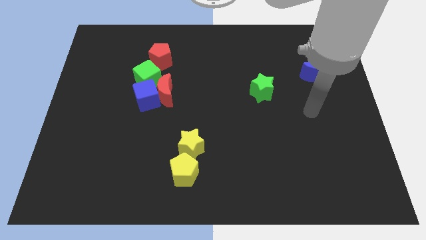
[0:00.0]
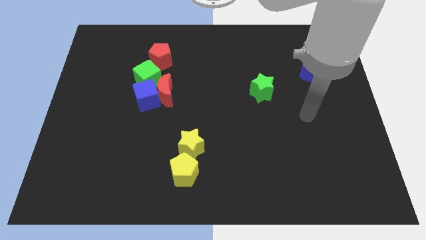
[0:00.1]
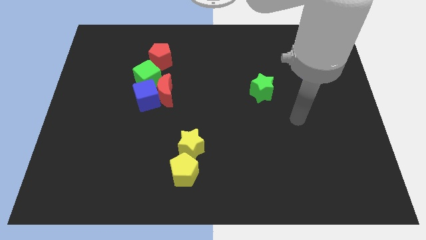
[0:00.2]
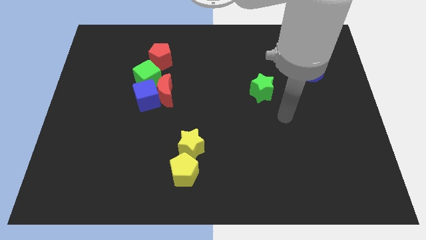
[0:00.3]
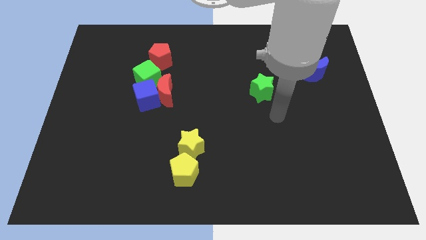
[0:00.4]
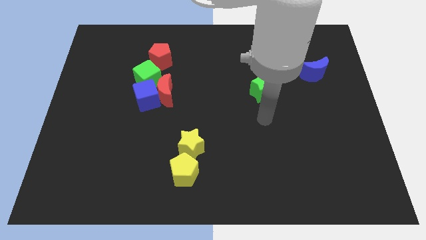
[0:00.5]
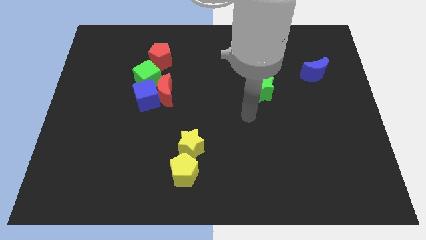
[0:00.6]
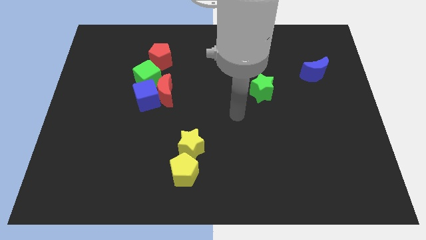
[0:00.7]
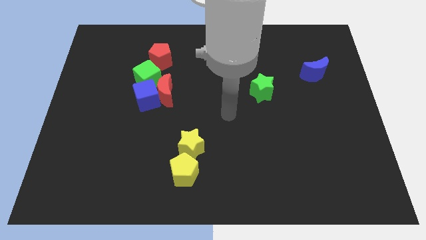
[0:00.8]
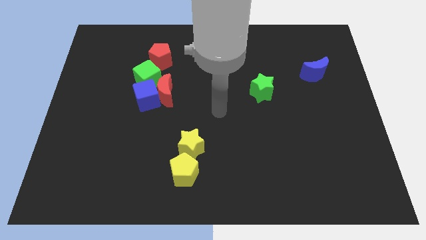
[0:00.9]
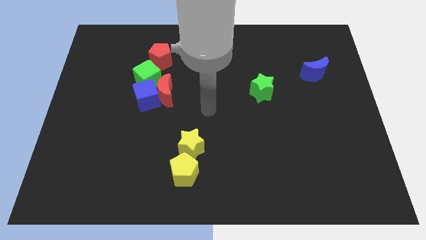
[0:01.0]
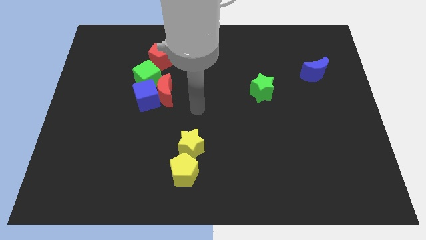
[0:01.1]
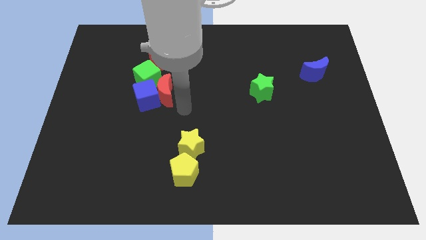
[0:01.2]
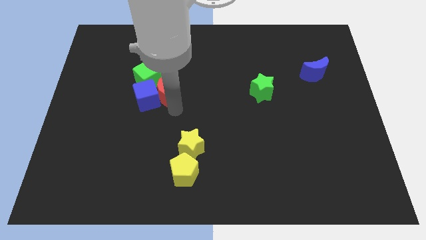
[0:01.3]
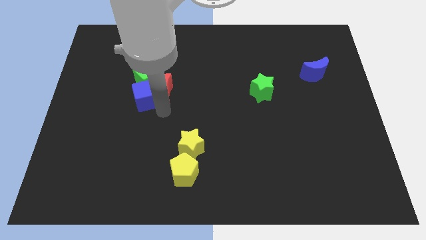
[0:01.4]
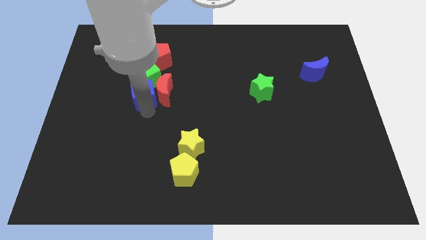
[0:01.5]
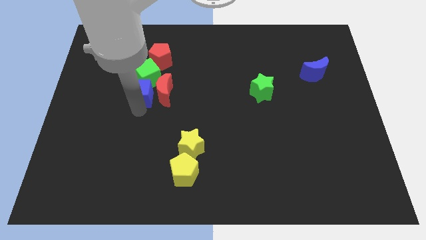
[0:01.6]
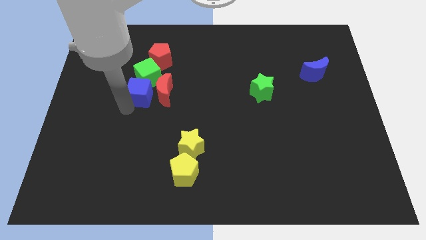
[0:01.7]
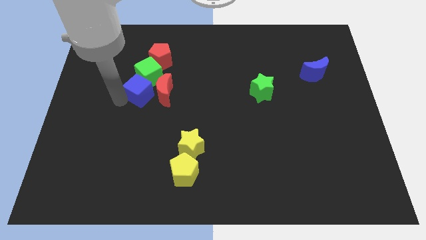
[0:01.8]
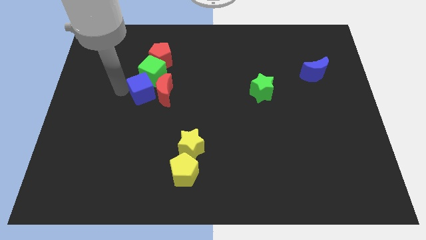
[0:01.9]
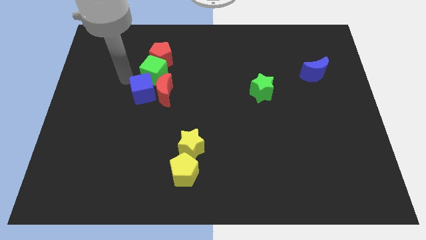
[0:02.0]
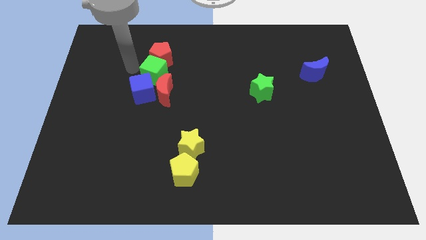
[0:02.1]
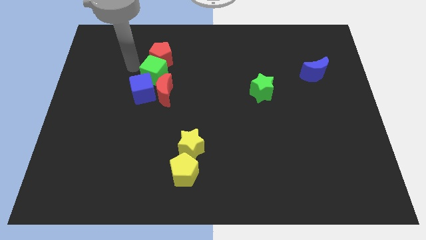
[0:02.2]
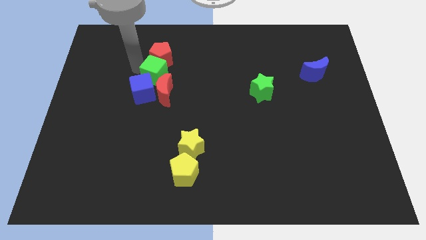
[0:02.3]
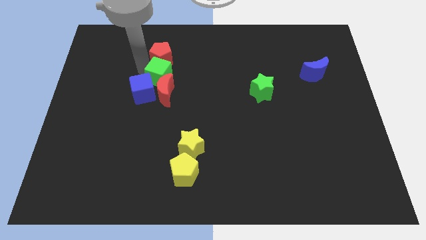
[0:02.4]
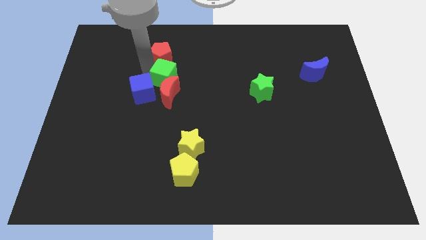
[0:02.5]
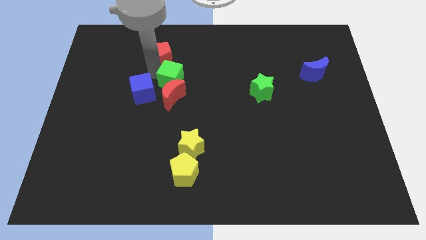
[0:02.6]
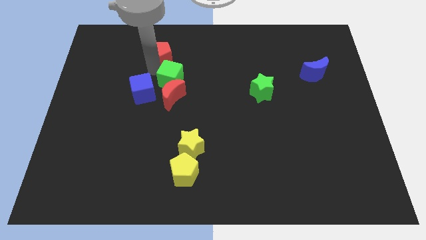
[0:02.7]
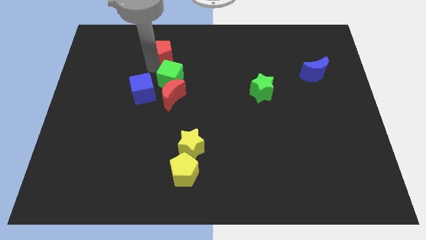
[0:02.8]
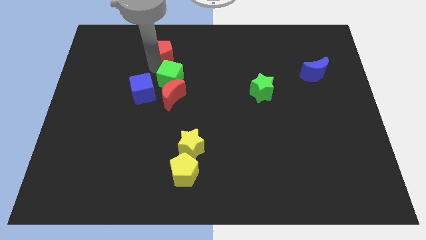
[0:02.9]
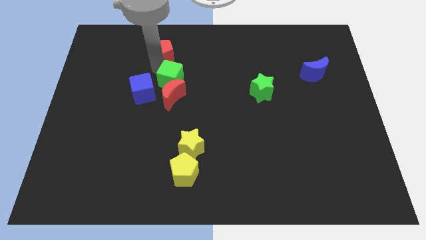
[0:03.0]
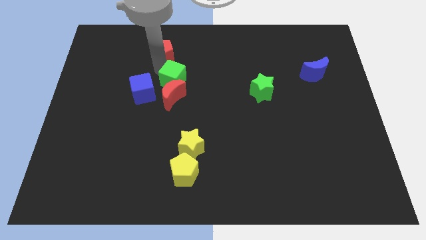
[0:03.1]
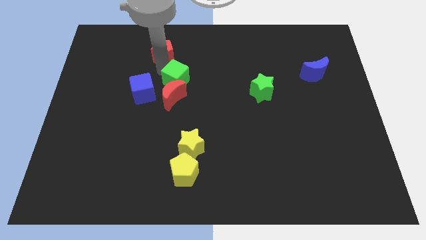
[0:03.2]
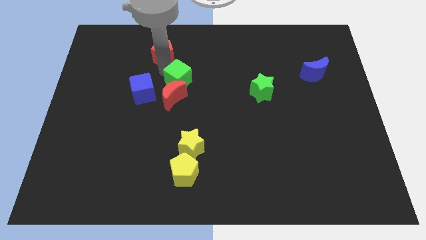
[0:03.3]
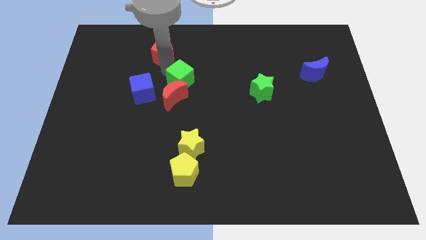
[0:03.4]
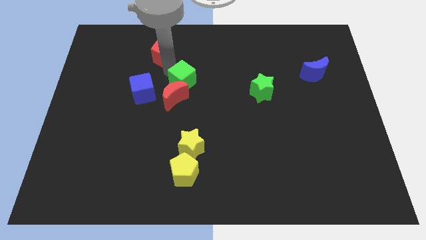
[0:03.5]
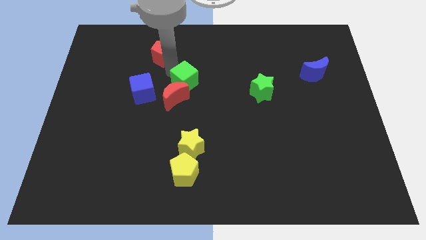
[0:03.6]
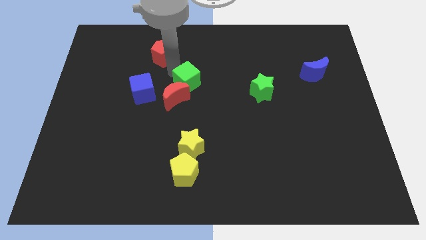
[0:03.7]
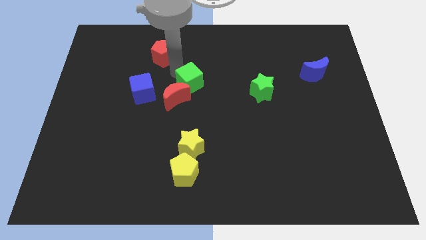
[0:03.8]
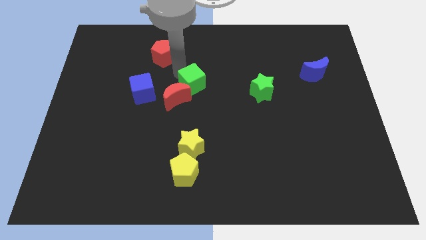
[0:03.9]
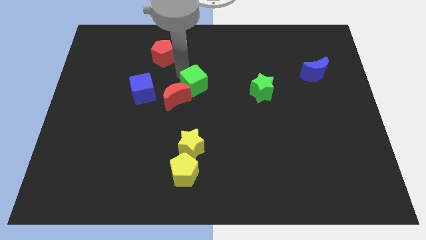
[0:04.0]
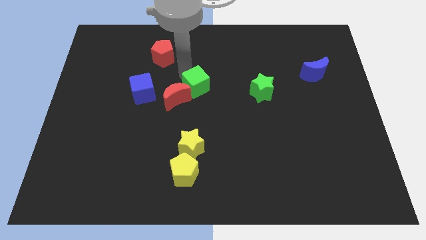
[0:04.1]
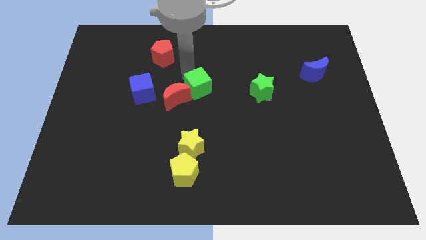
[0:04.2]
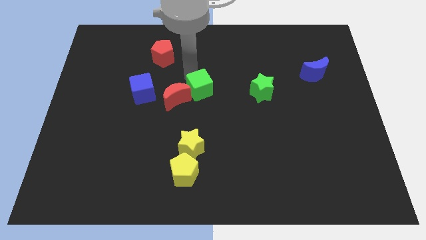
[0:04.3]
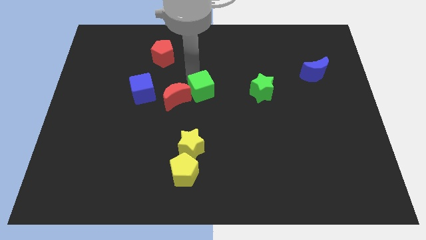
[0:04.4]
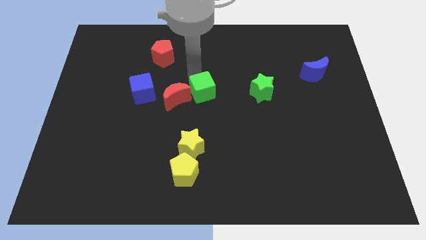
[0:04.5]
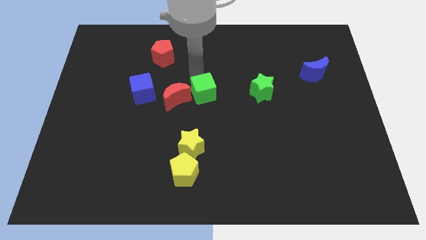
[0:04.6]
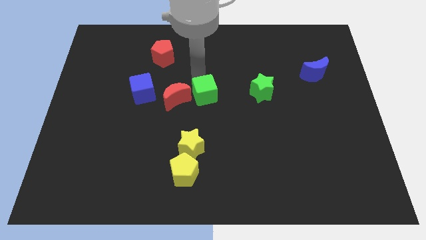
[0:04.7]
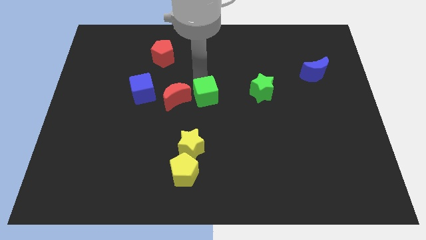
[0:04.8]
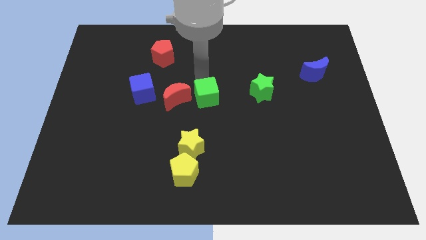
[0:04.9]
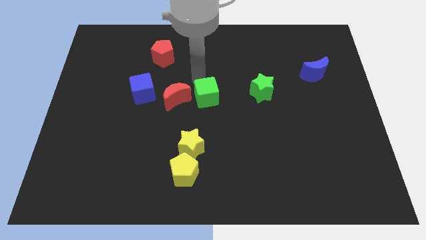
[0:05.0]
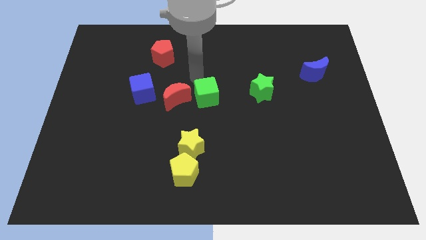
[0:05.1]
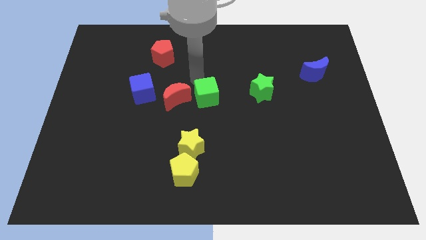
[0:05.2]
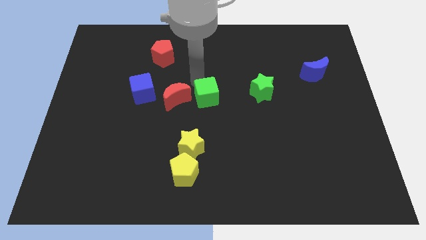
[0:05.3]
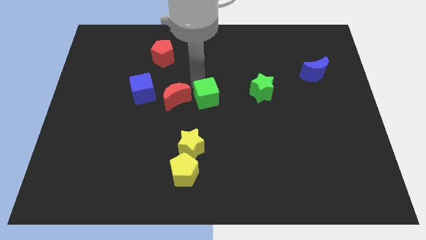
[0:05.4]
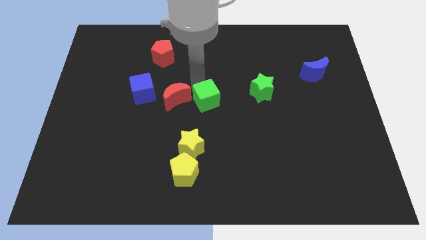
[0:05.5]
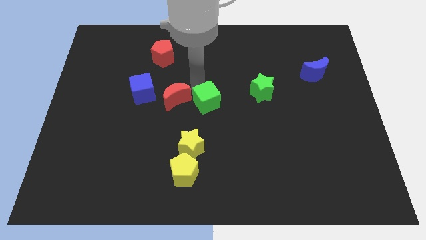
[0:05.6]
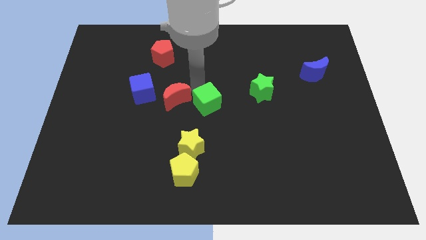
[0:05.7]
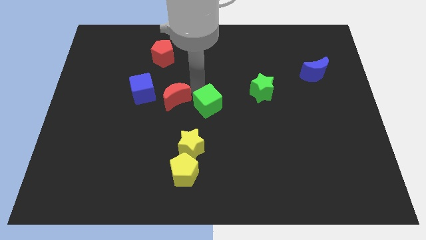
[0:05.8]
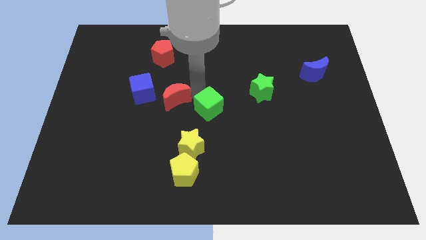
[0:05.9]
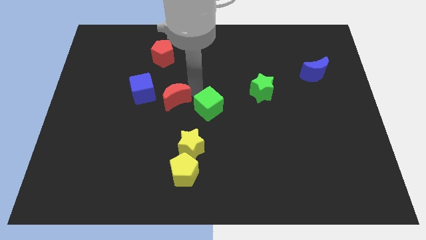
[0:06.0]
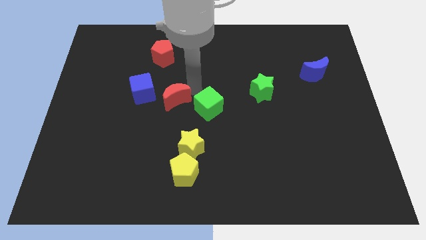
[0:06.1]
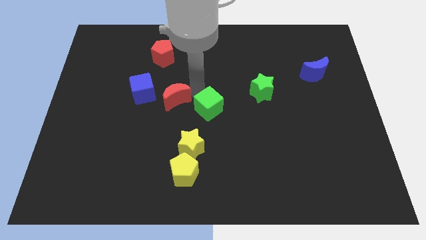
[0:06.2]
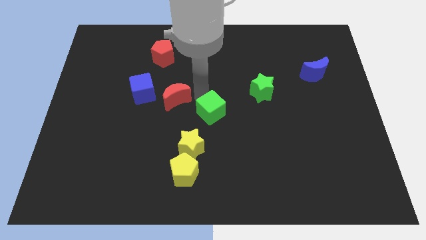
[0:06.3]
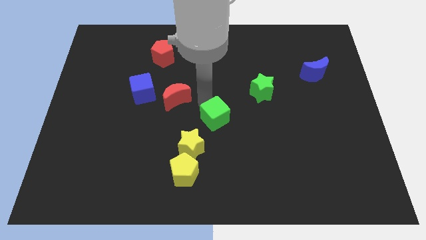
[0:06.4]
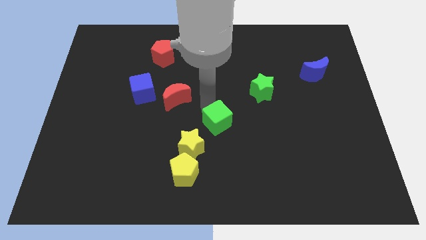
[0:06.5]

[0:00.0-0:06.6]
push the green cube diagonally downwards and right

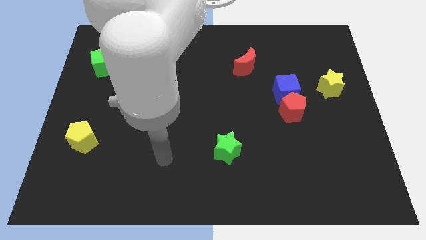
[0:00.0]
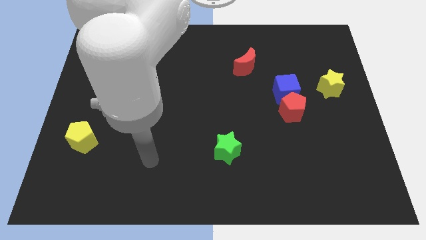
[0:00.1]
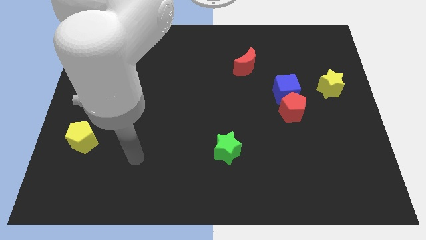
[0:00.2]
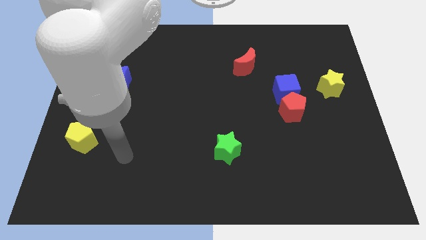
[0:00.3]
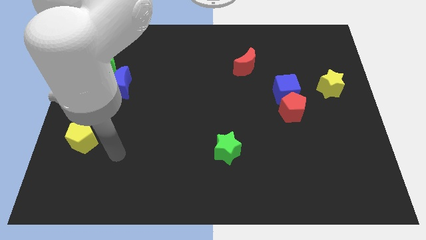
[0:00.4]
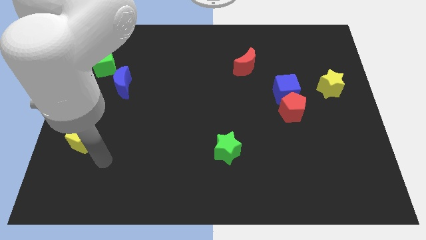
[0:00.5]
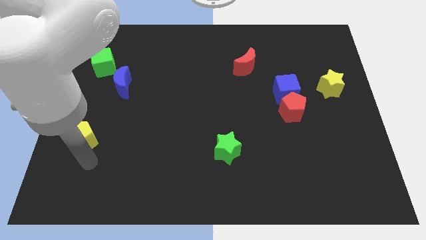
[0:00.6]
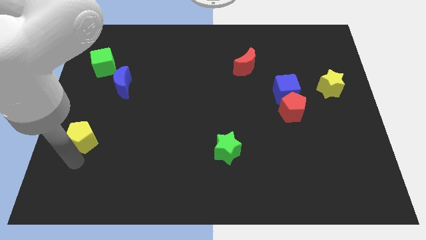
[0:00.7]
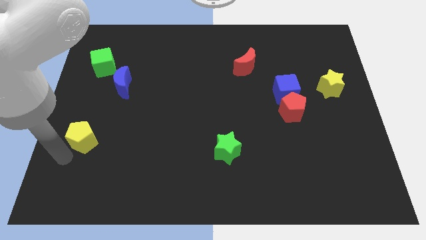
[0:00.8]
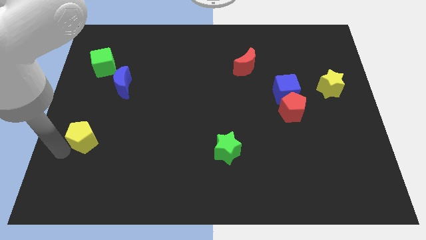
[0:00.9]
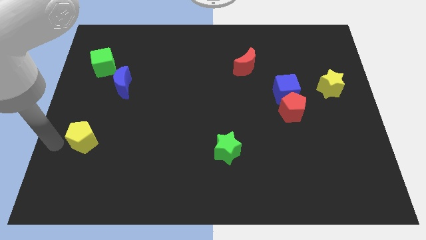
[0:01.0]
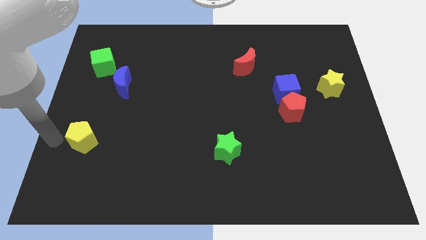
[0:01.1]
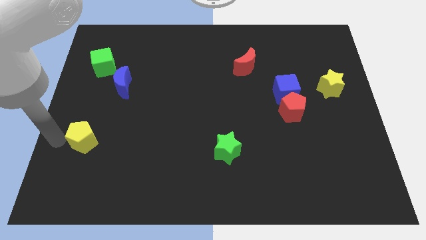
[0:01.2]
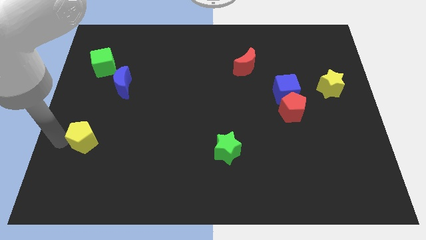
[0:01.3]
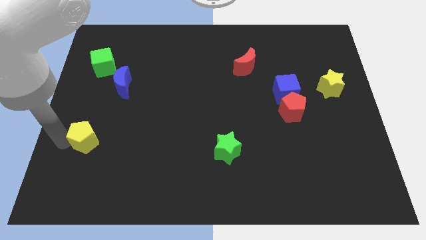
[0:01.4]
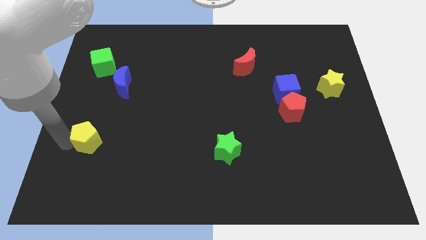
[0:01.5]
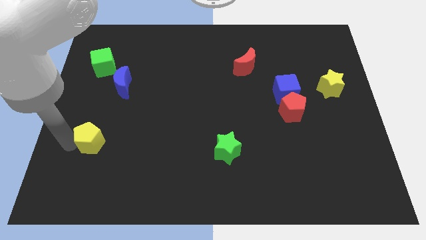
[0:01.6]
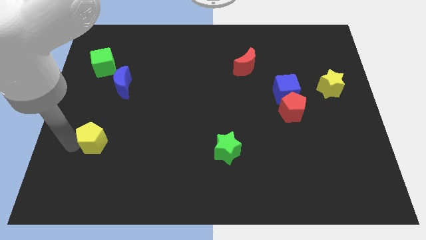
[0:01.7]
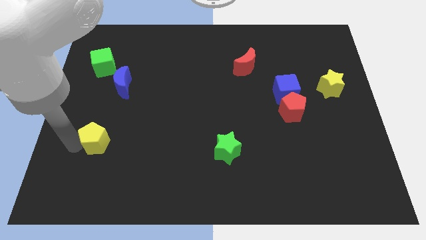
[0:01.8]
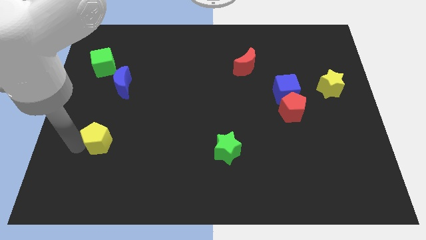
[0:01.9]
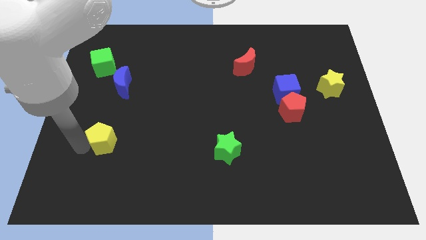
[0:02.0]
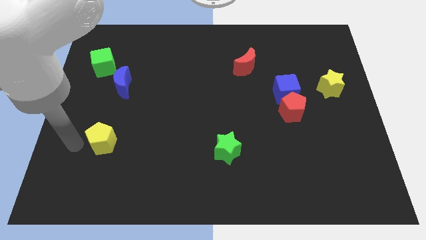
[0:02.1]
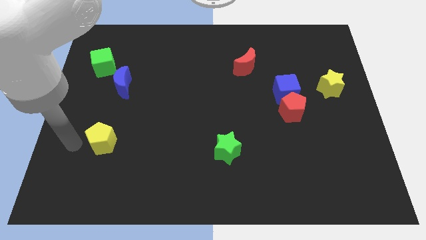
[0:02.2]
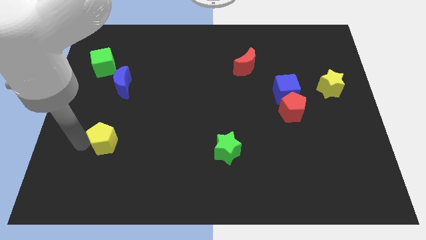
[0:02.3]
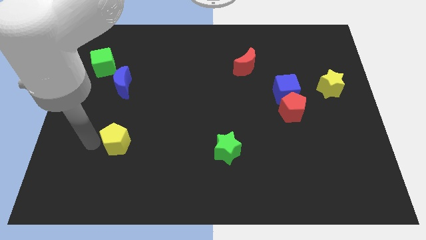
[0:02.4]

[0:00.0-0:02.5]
slightly move the yellow pentagon right
